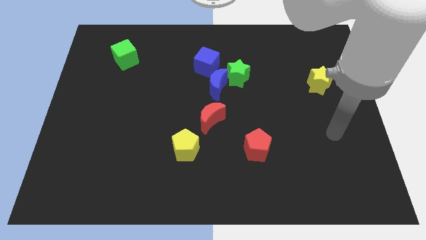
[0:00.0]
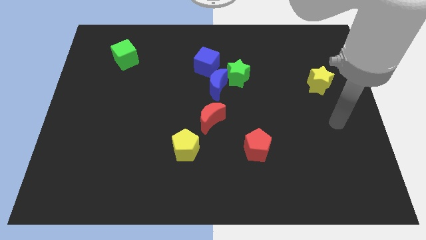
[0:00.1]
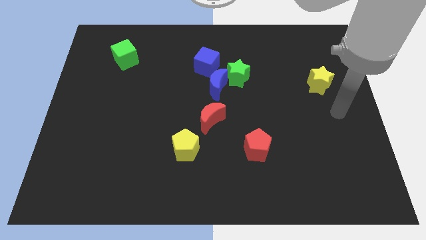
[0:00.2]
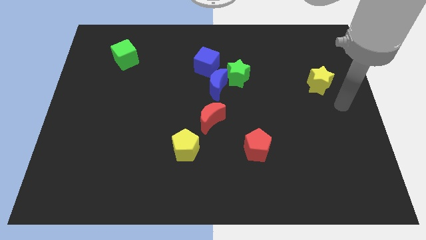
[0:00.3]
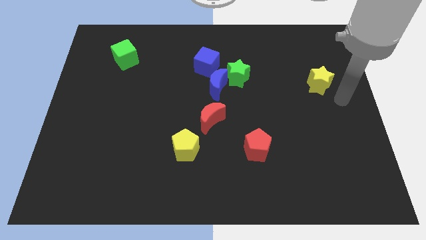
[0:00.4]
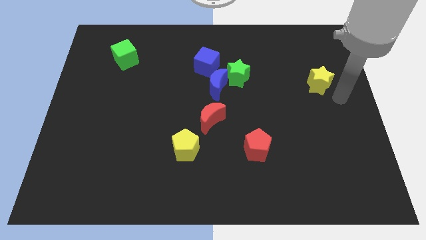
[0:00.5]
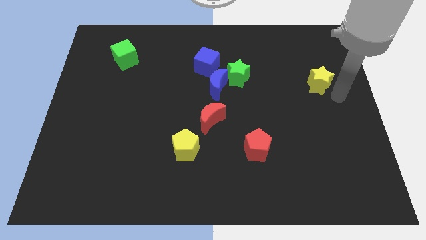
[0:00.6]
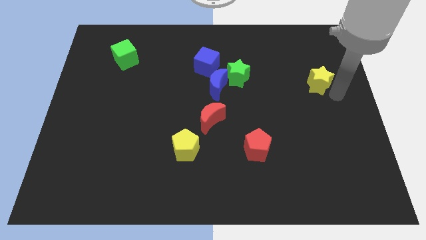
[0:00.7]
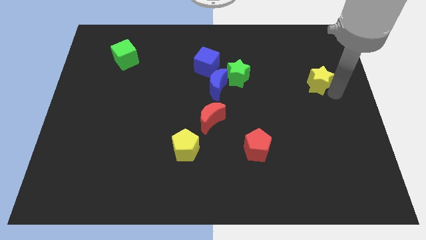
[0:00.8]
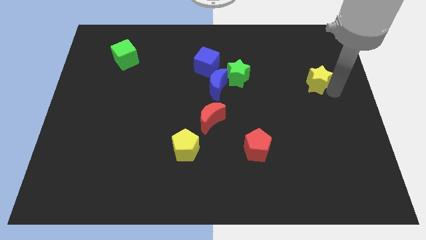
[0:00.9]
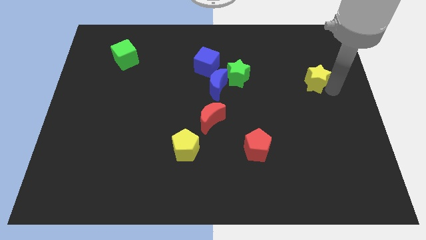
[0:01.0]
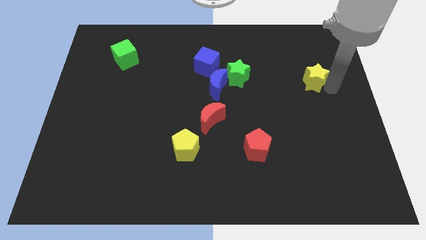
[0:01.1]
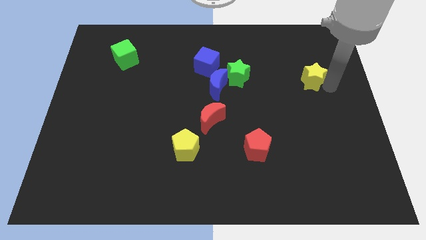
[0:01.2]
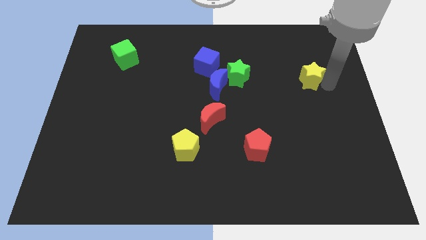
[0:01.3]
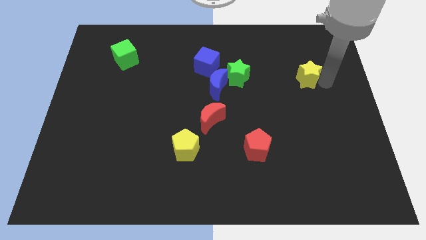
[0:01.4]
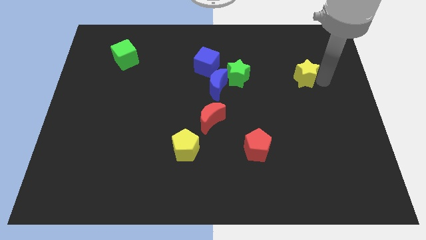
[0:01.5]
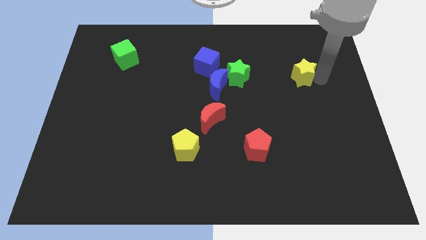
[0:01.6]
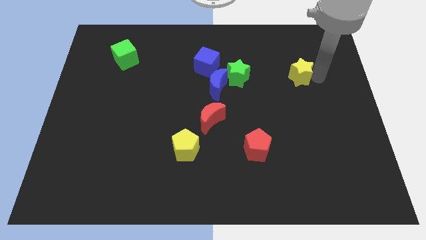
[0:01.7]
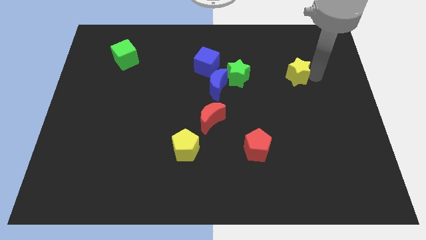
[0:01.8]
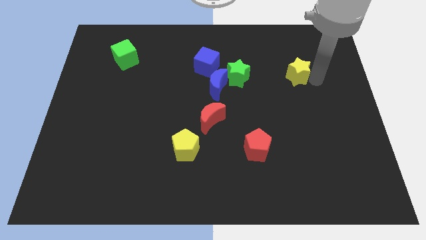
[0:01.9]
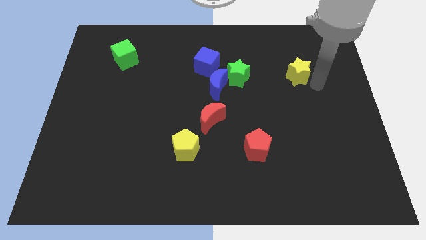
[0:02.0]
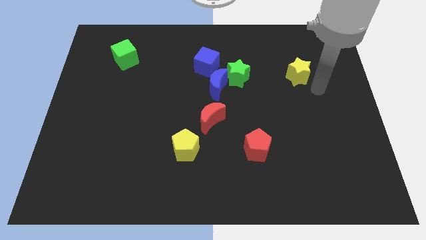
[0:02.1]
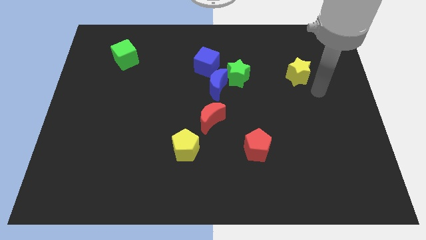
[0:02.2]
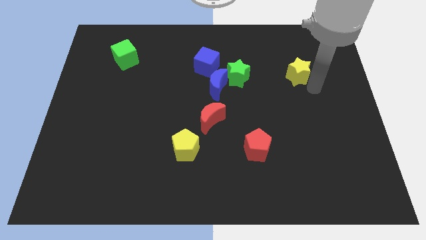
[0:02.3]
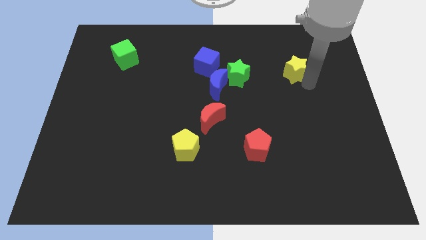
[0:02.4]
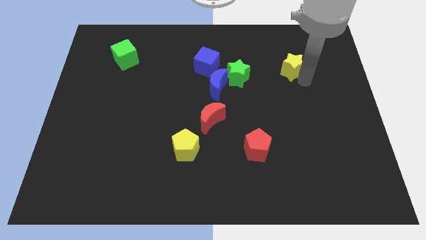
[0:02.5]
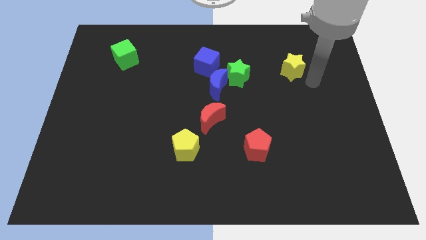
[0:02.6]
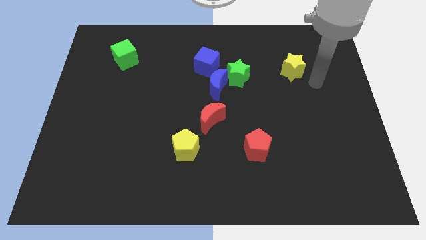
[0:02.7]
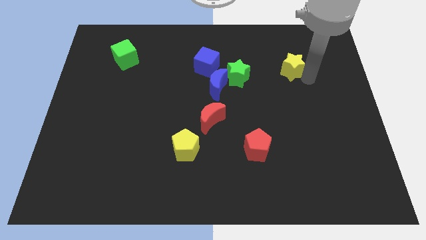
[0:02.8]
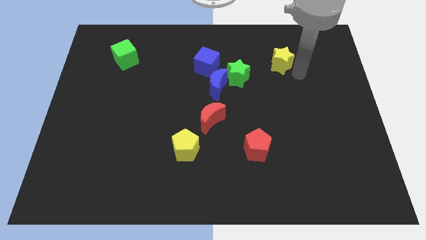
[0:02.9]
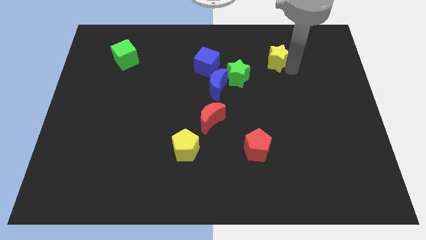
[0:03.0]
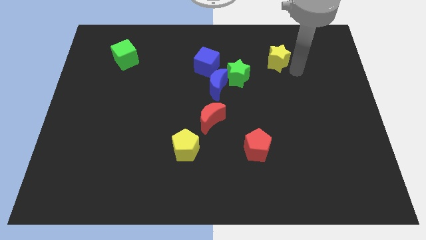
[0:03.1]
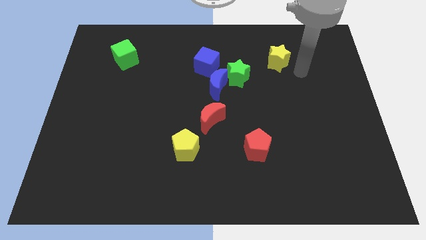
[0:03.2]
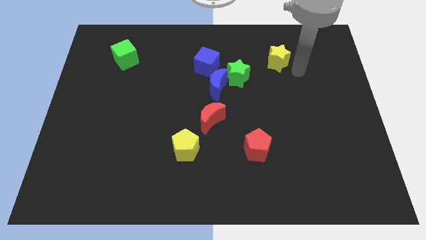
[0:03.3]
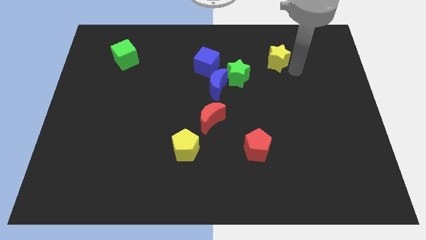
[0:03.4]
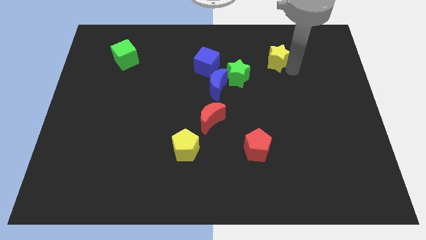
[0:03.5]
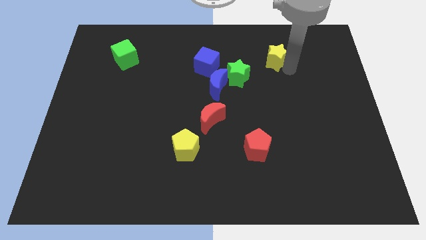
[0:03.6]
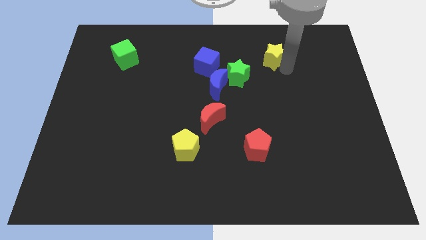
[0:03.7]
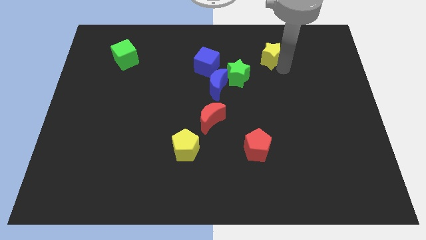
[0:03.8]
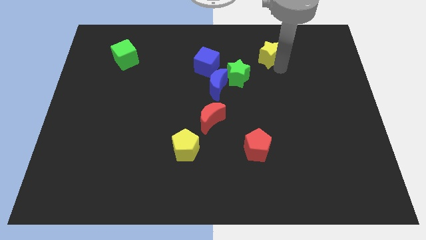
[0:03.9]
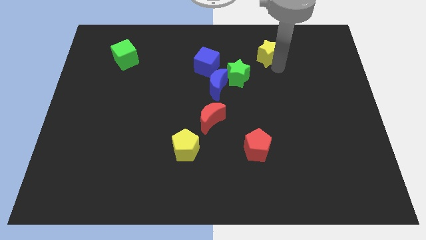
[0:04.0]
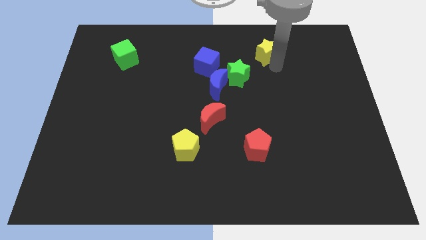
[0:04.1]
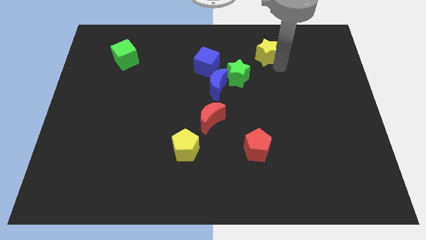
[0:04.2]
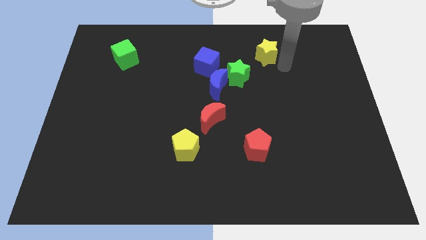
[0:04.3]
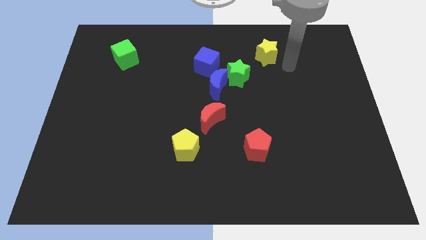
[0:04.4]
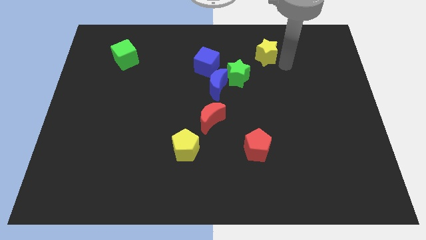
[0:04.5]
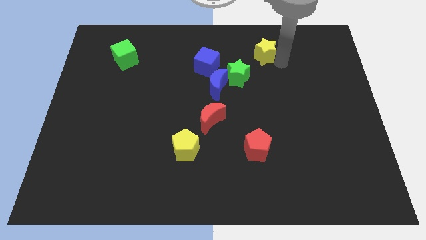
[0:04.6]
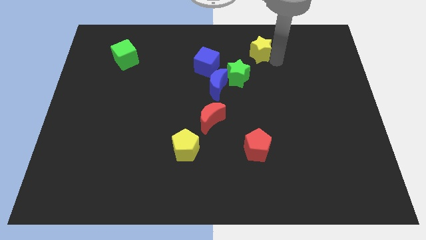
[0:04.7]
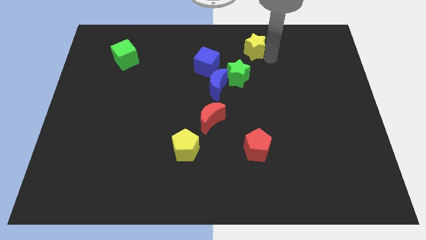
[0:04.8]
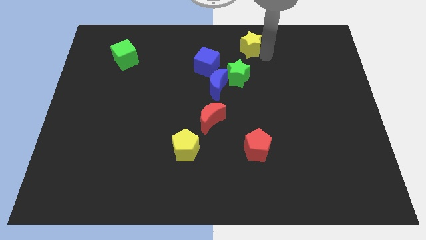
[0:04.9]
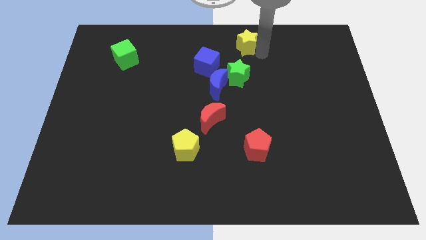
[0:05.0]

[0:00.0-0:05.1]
slide the yellow star to the top side

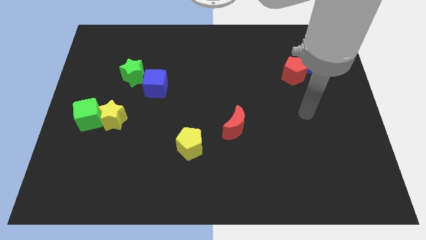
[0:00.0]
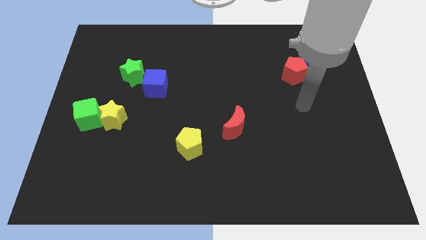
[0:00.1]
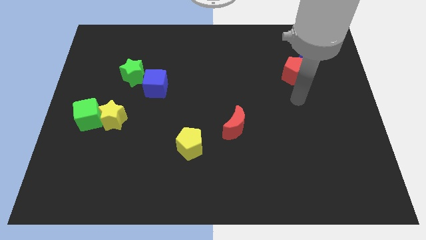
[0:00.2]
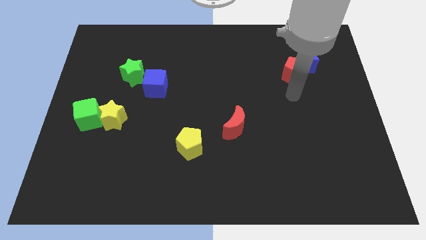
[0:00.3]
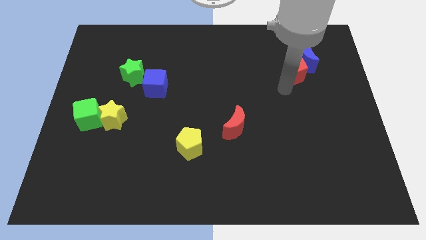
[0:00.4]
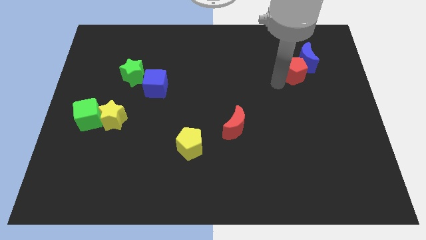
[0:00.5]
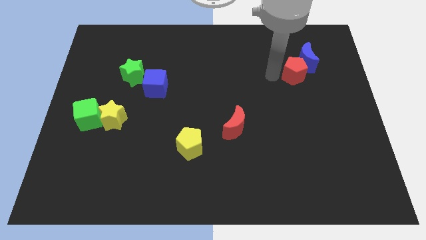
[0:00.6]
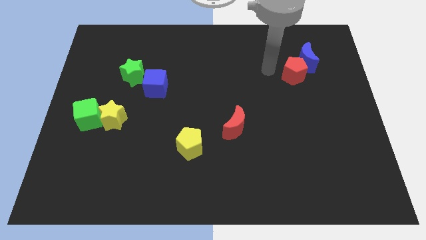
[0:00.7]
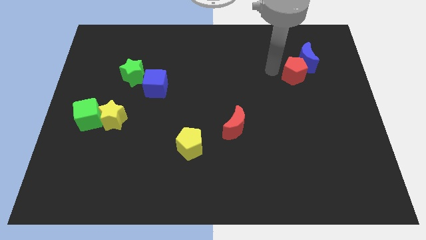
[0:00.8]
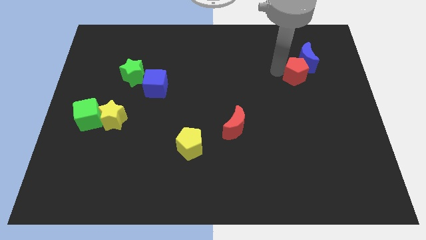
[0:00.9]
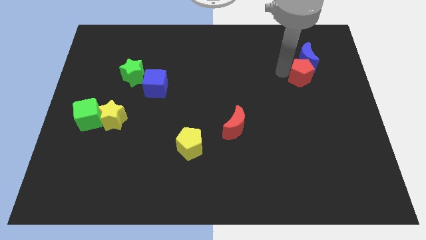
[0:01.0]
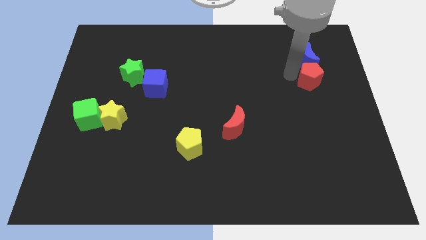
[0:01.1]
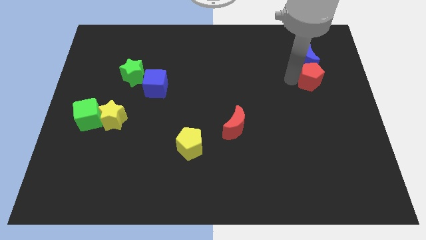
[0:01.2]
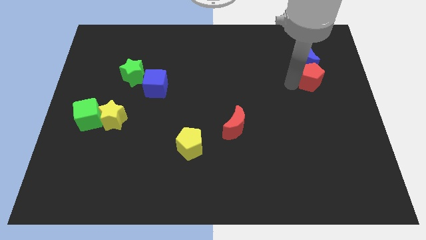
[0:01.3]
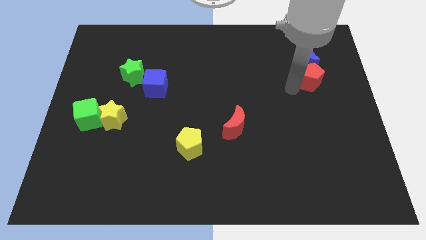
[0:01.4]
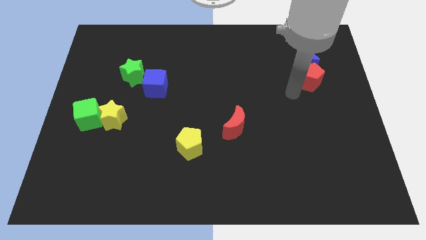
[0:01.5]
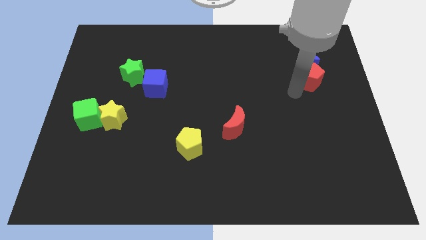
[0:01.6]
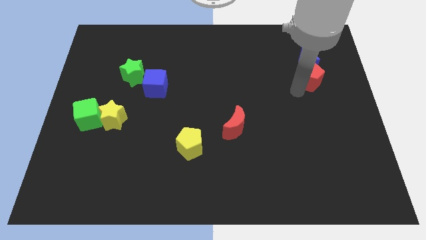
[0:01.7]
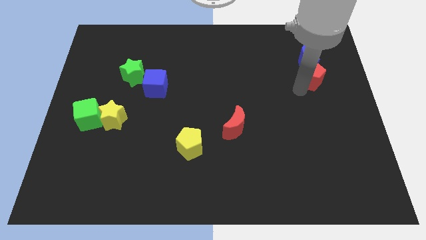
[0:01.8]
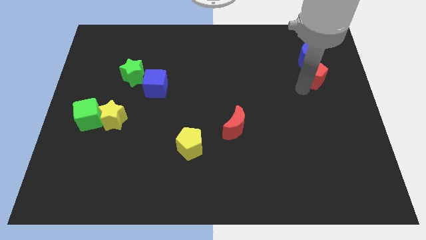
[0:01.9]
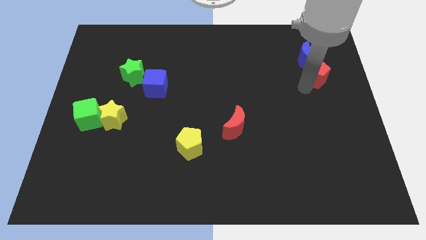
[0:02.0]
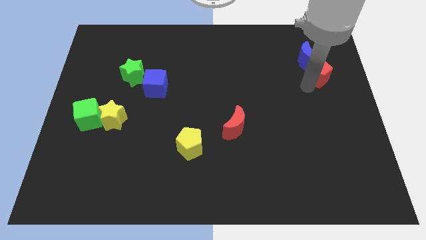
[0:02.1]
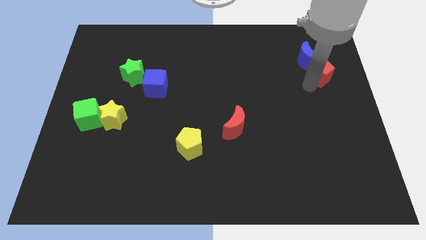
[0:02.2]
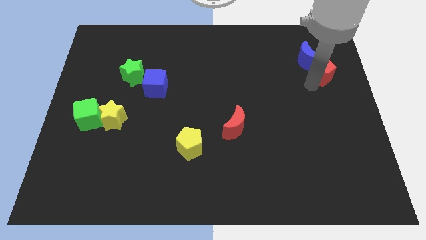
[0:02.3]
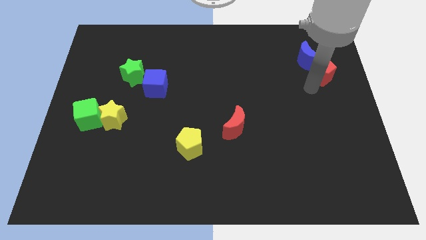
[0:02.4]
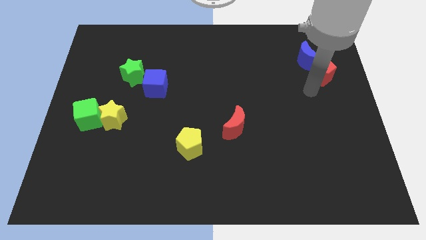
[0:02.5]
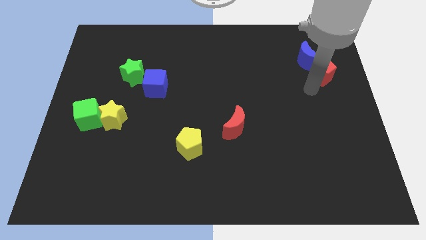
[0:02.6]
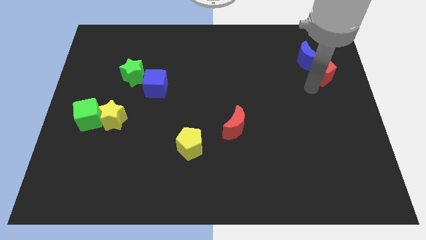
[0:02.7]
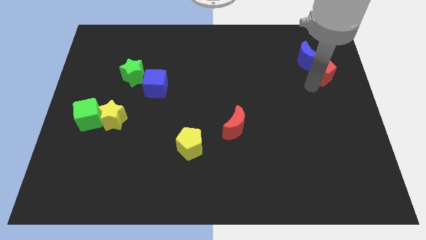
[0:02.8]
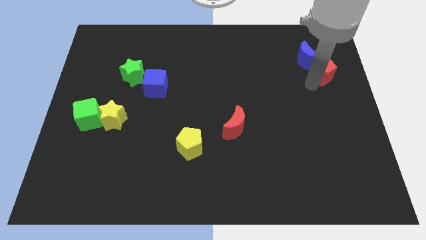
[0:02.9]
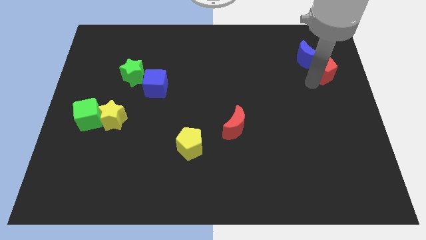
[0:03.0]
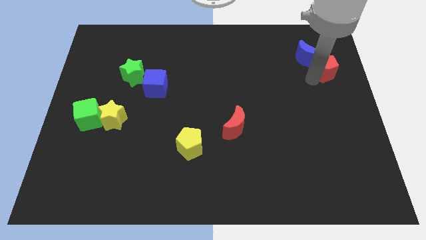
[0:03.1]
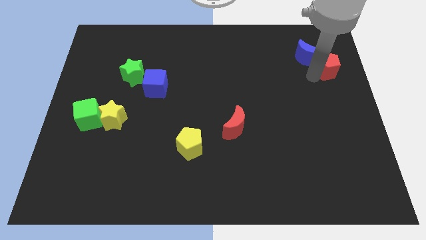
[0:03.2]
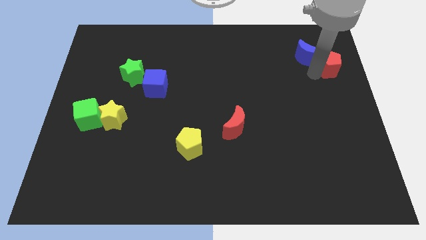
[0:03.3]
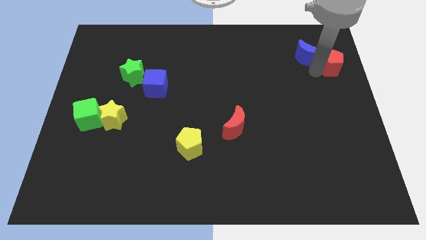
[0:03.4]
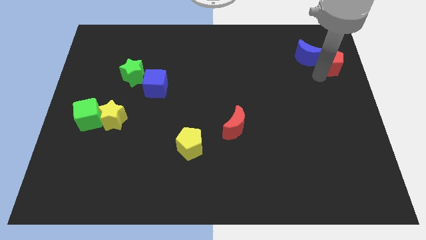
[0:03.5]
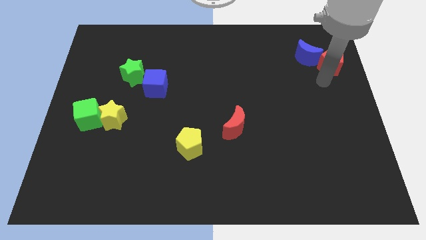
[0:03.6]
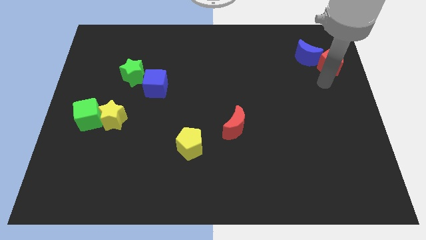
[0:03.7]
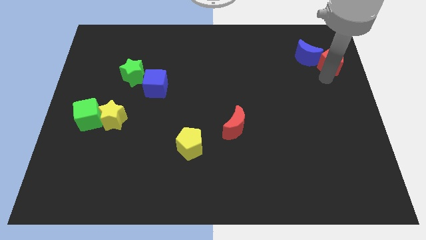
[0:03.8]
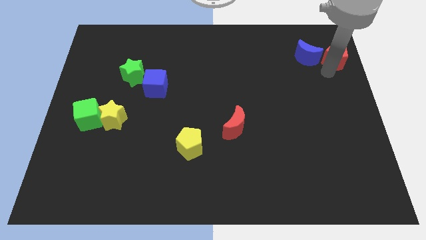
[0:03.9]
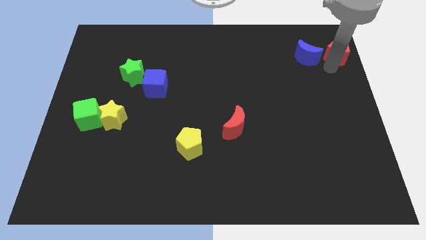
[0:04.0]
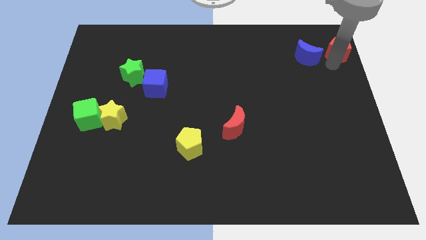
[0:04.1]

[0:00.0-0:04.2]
move the red pentagon to the top right corner
